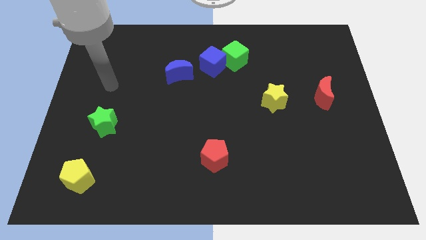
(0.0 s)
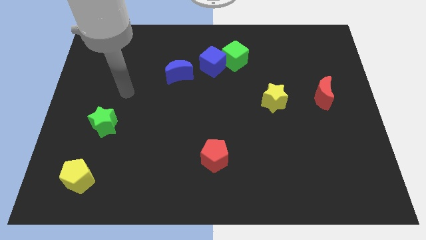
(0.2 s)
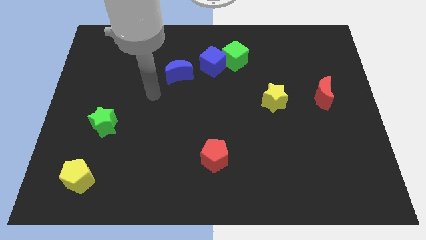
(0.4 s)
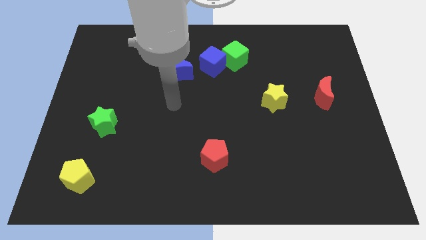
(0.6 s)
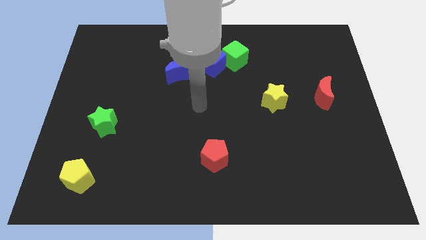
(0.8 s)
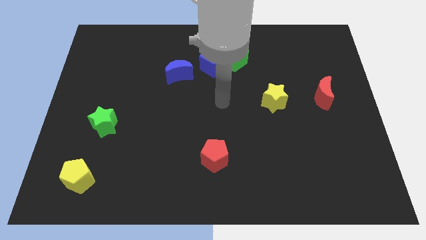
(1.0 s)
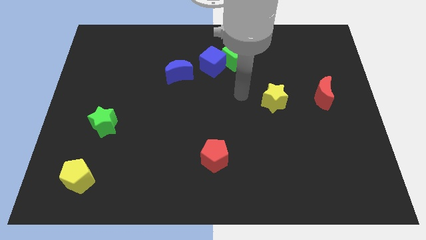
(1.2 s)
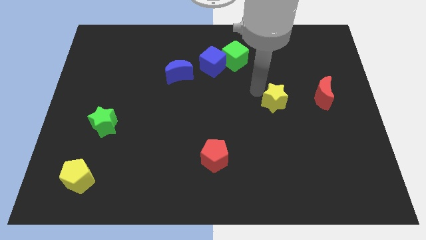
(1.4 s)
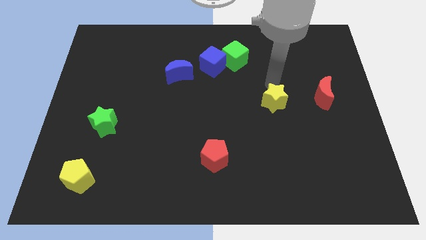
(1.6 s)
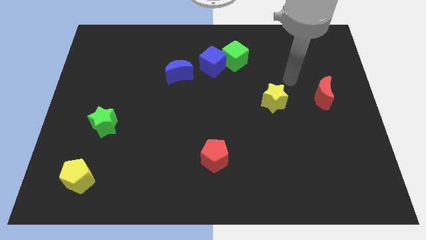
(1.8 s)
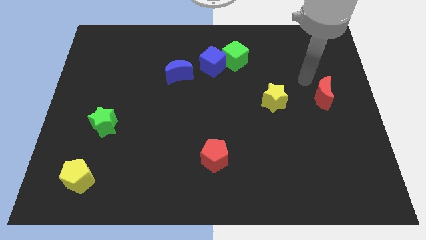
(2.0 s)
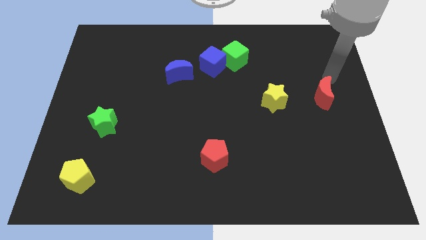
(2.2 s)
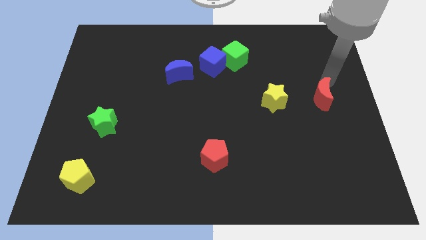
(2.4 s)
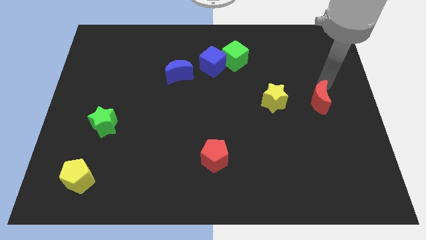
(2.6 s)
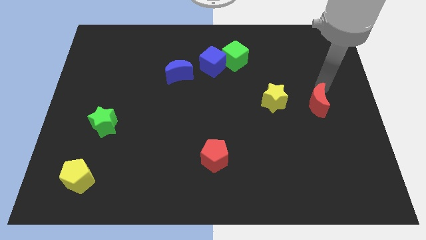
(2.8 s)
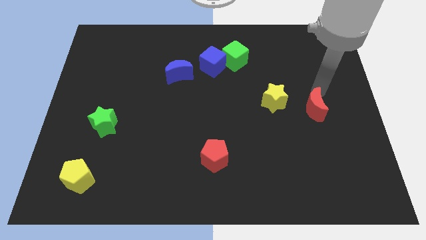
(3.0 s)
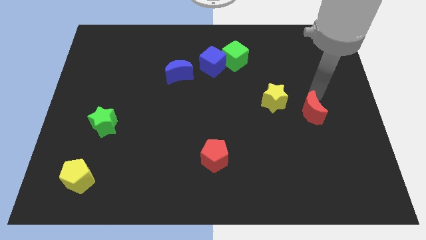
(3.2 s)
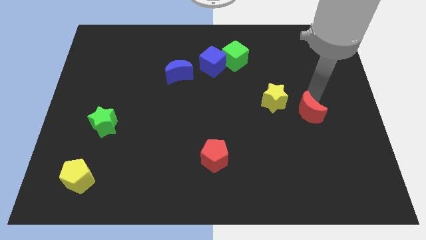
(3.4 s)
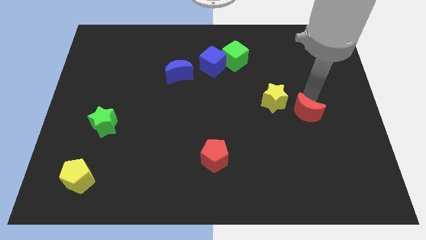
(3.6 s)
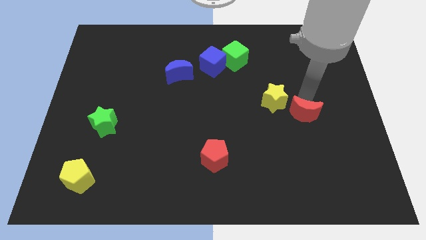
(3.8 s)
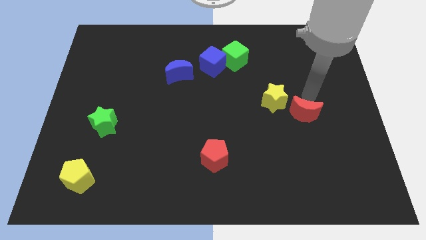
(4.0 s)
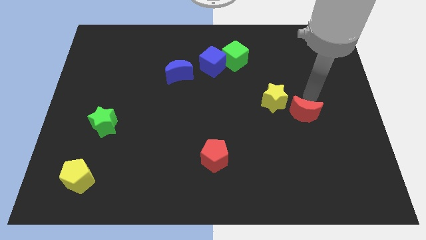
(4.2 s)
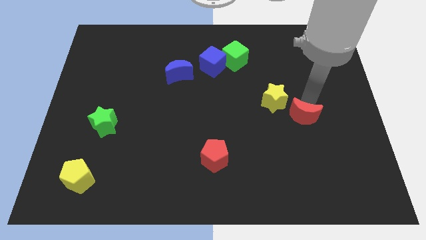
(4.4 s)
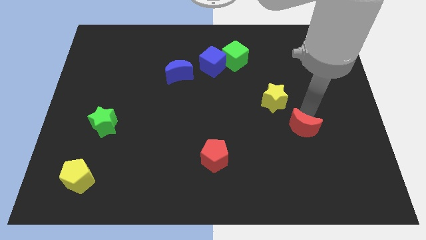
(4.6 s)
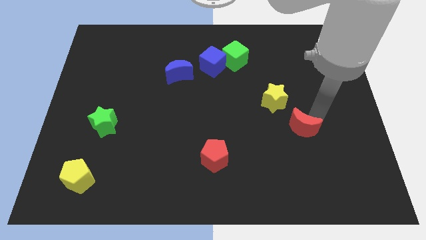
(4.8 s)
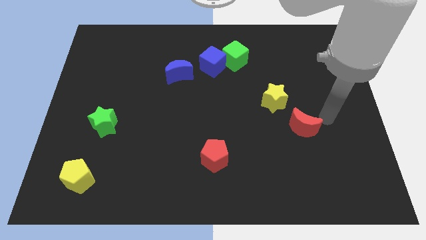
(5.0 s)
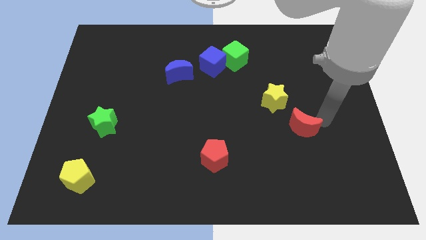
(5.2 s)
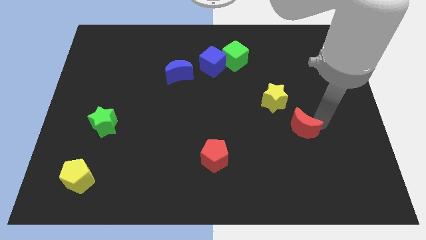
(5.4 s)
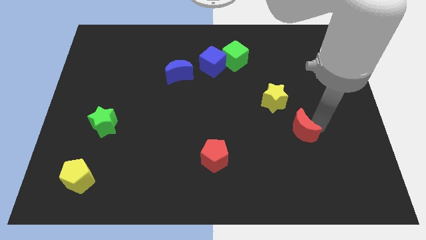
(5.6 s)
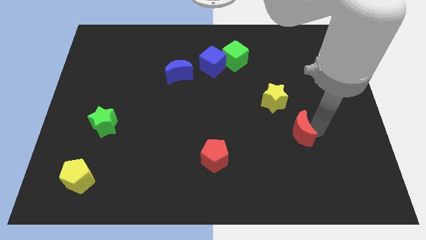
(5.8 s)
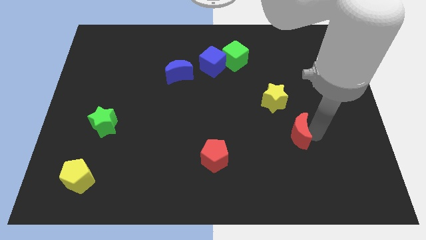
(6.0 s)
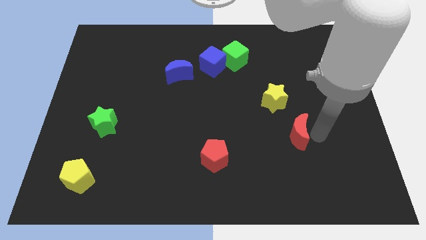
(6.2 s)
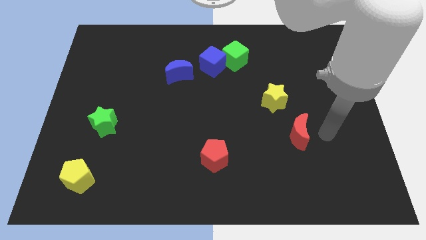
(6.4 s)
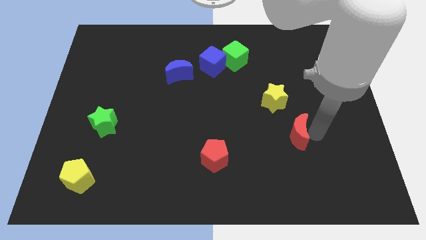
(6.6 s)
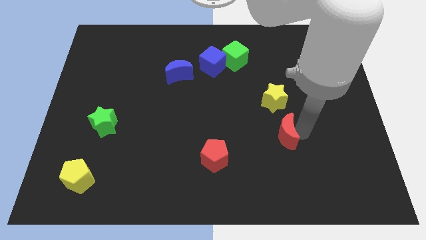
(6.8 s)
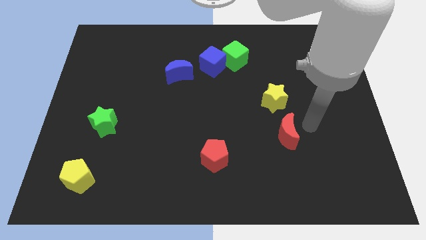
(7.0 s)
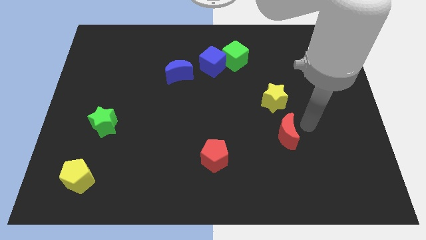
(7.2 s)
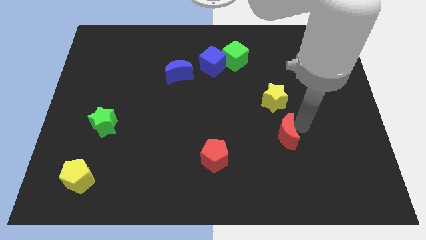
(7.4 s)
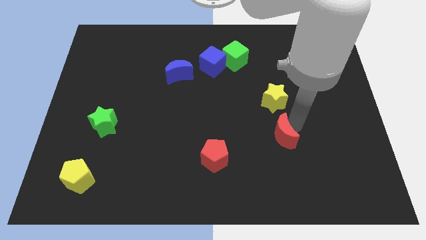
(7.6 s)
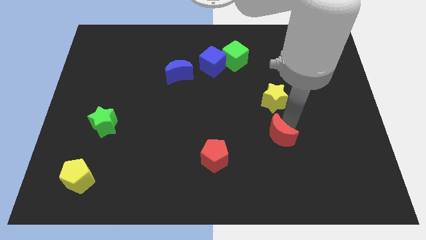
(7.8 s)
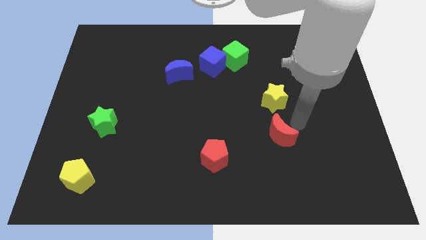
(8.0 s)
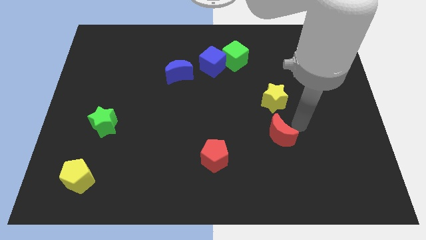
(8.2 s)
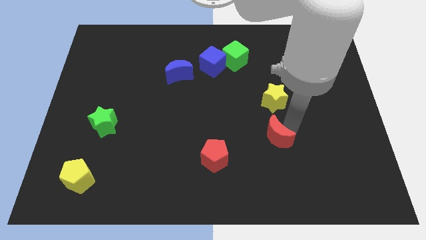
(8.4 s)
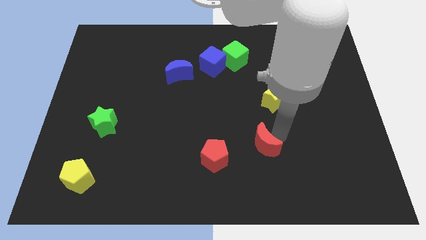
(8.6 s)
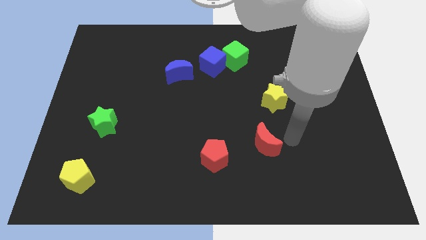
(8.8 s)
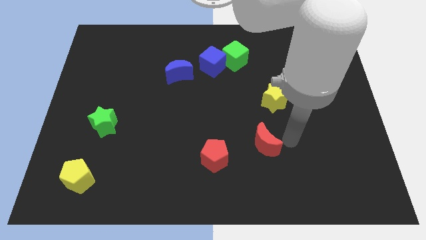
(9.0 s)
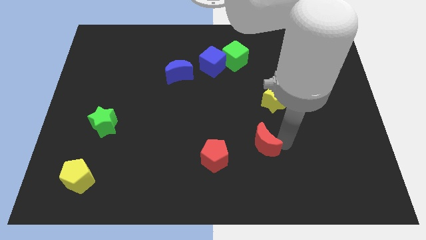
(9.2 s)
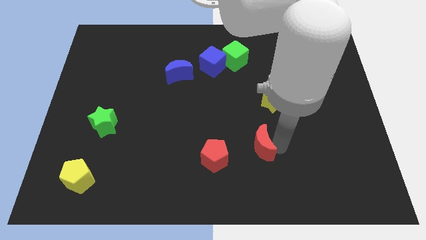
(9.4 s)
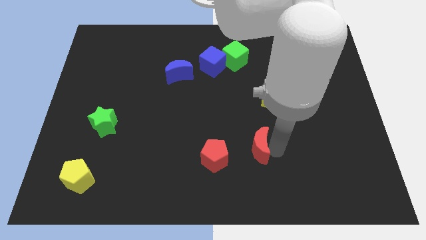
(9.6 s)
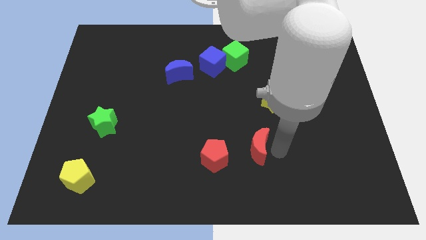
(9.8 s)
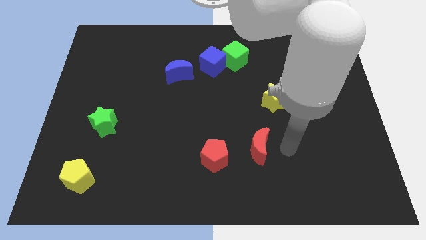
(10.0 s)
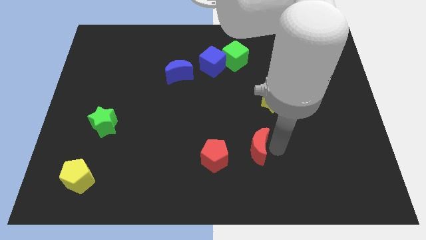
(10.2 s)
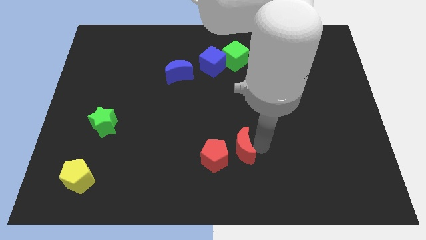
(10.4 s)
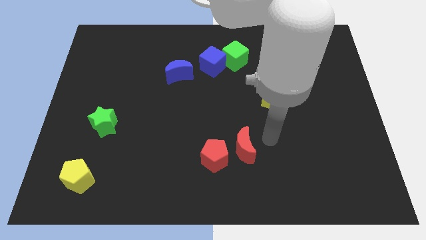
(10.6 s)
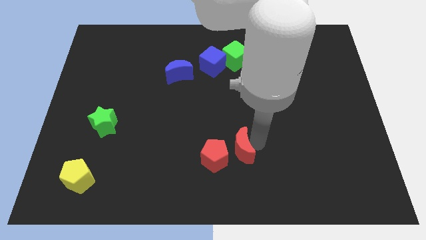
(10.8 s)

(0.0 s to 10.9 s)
slide the red moon towards the red pentagon

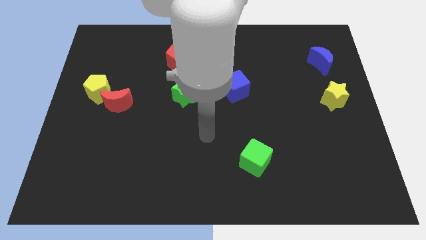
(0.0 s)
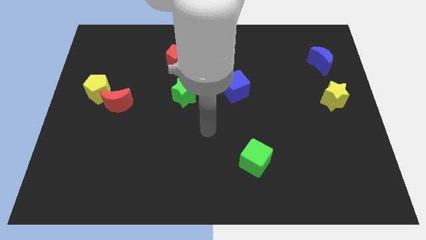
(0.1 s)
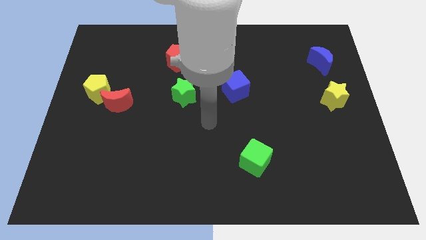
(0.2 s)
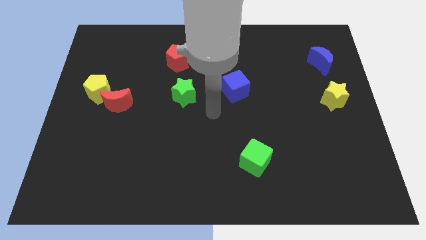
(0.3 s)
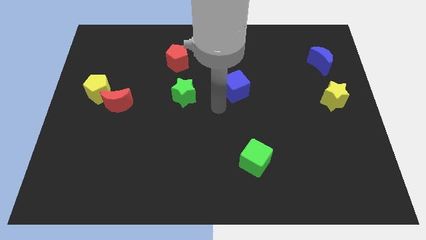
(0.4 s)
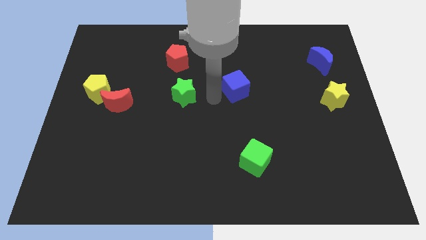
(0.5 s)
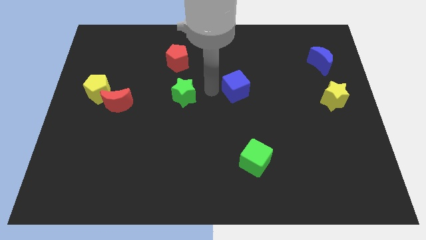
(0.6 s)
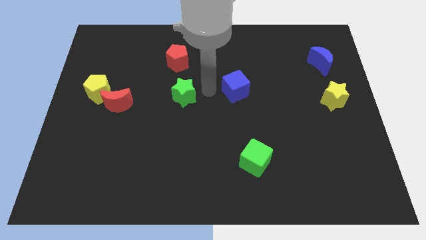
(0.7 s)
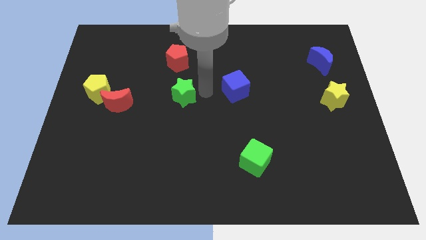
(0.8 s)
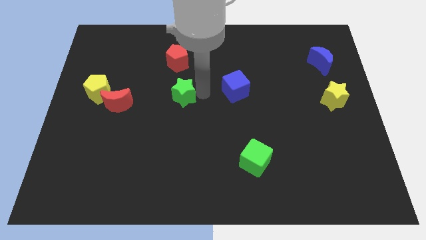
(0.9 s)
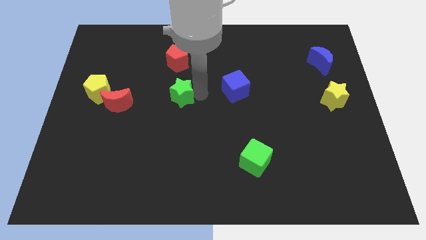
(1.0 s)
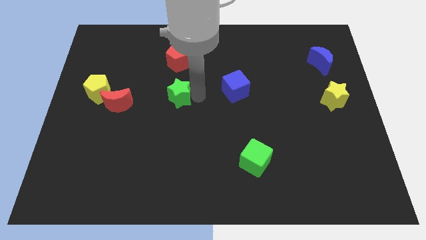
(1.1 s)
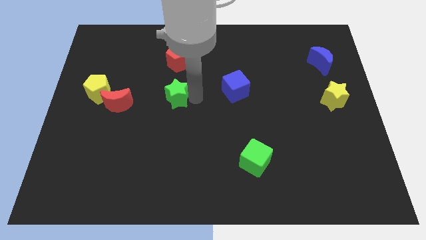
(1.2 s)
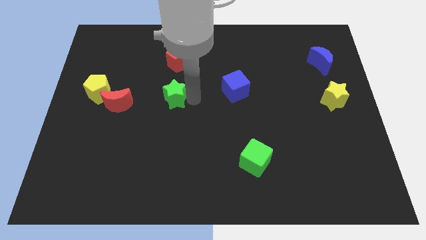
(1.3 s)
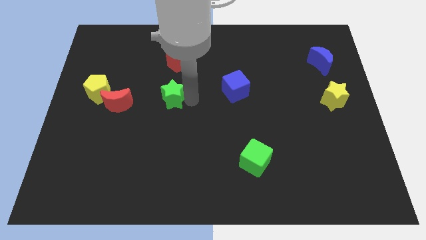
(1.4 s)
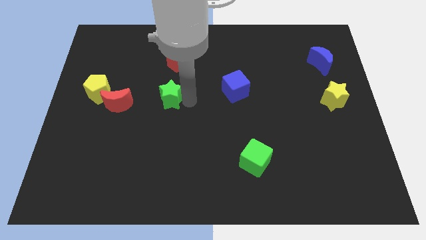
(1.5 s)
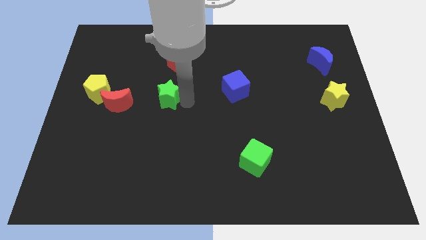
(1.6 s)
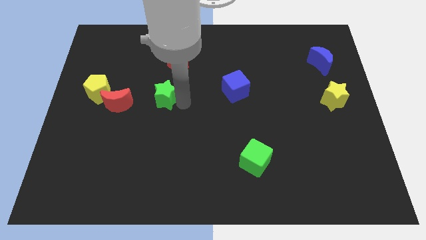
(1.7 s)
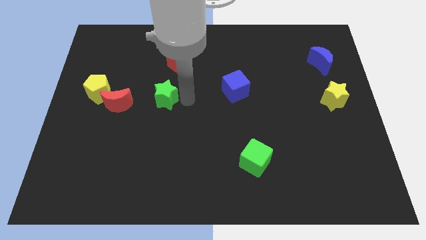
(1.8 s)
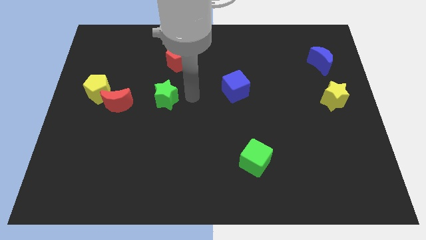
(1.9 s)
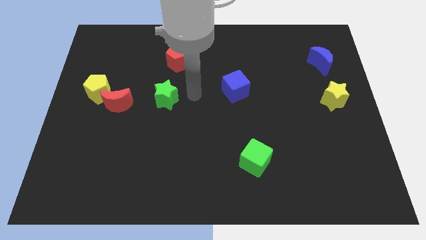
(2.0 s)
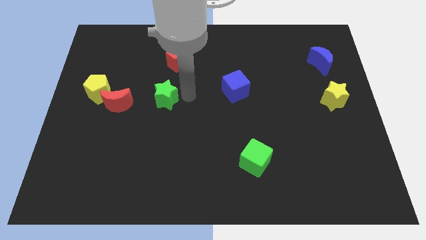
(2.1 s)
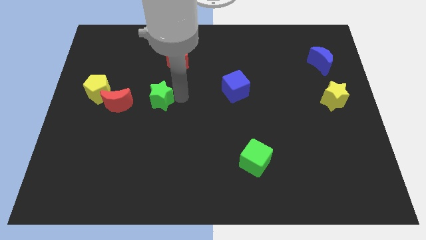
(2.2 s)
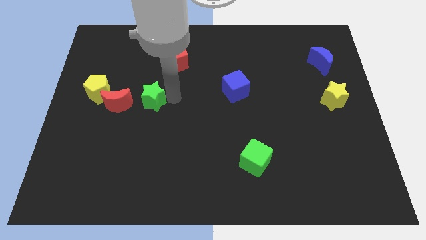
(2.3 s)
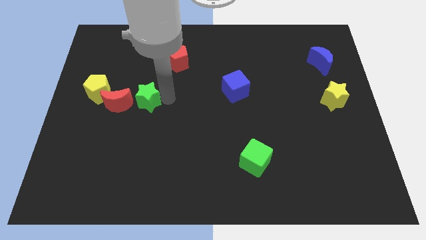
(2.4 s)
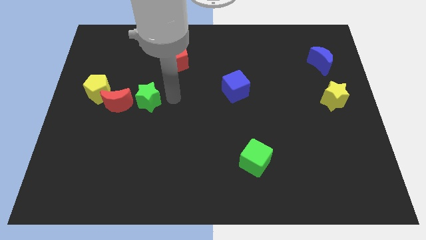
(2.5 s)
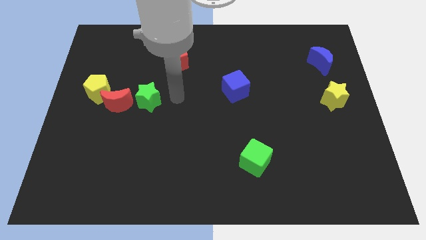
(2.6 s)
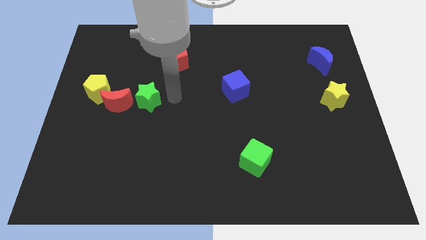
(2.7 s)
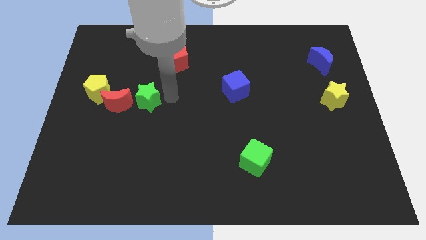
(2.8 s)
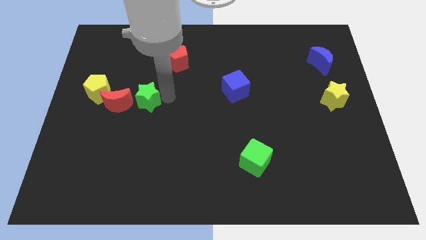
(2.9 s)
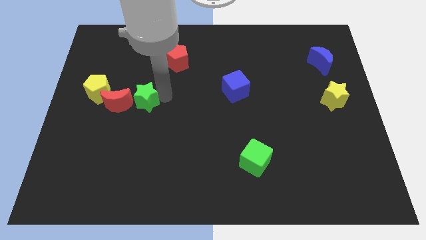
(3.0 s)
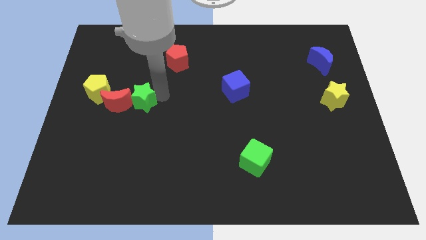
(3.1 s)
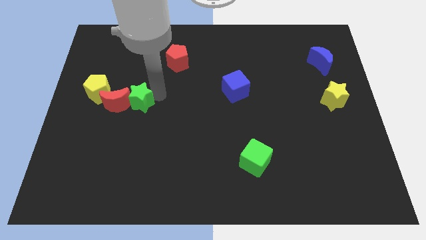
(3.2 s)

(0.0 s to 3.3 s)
slide the green star close to the red moon
